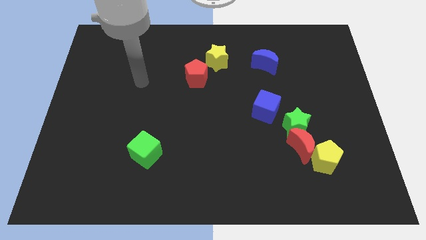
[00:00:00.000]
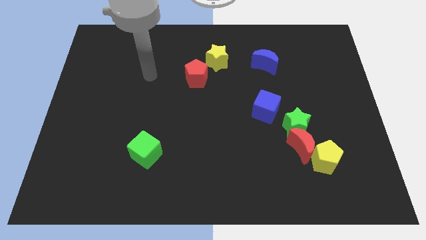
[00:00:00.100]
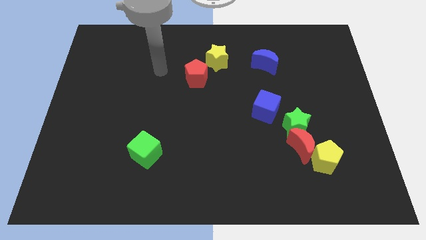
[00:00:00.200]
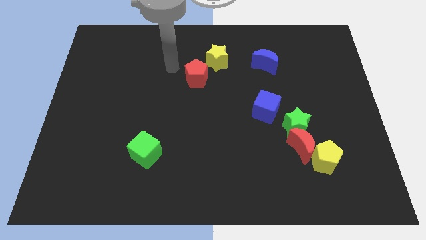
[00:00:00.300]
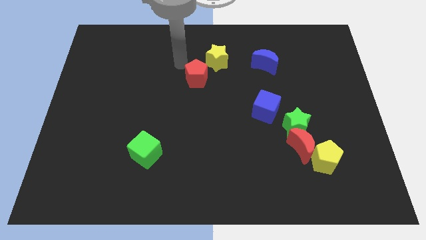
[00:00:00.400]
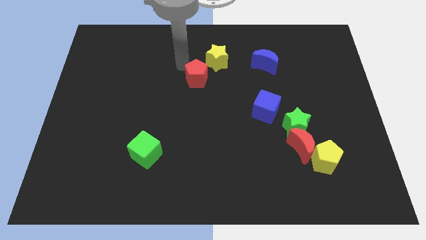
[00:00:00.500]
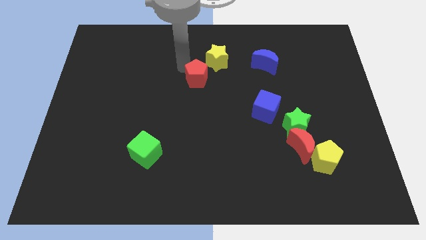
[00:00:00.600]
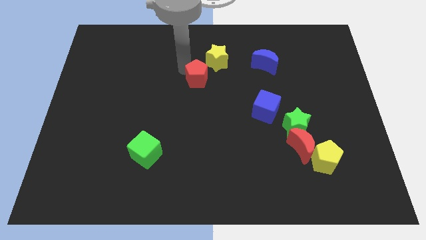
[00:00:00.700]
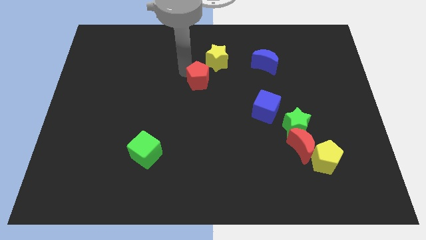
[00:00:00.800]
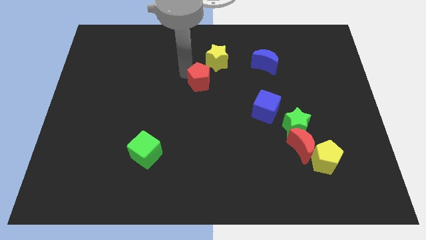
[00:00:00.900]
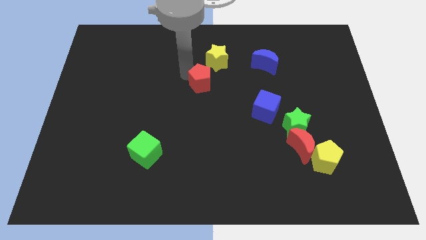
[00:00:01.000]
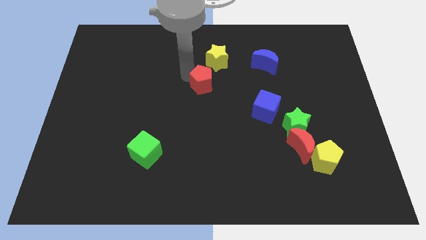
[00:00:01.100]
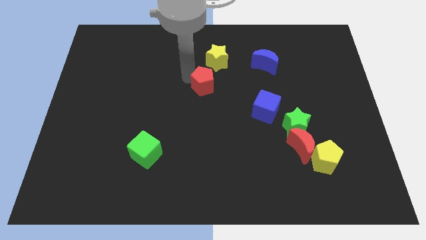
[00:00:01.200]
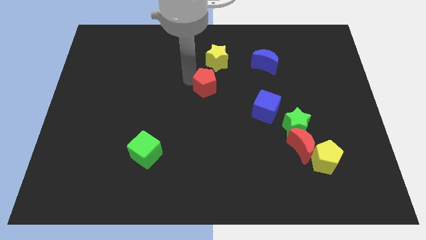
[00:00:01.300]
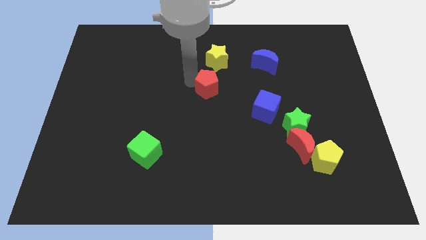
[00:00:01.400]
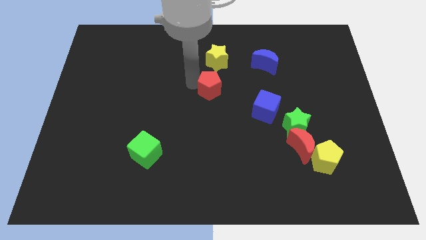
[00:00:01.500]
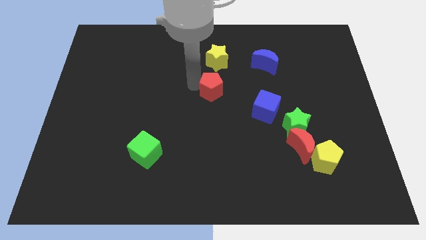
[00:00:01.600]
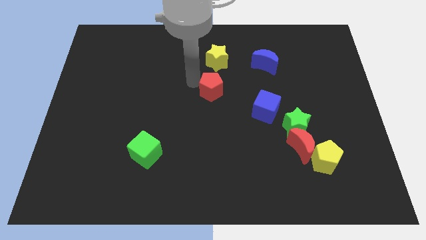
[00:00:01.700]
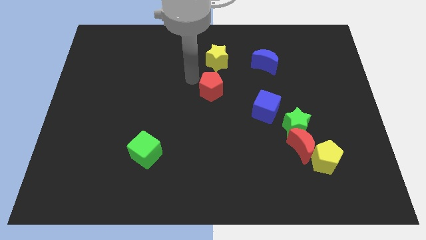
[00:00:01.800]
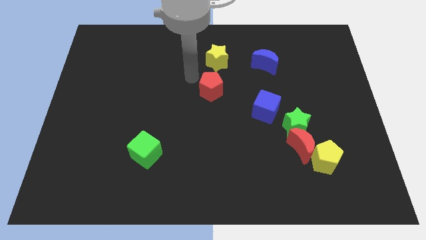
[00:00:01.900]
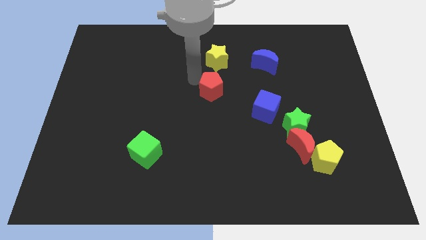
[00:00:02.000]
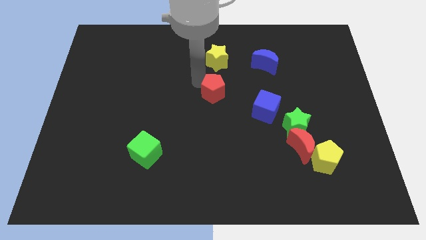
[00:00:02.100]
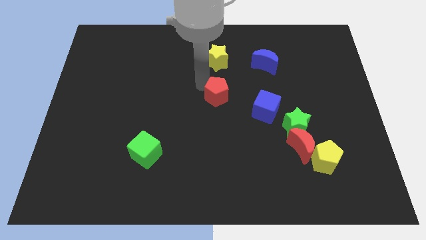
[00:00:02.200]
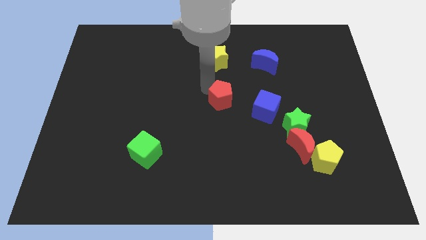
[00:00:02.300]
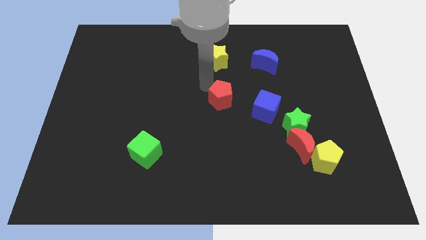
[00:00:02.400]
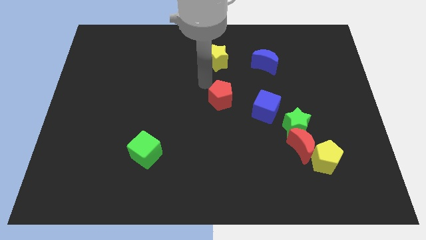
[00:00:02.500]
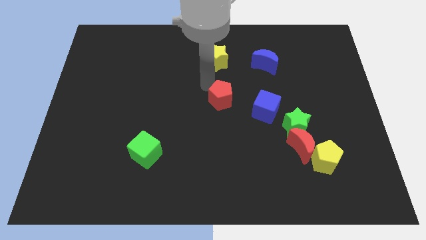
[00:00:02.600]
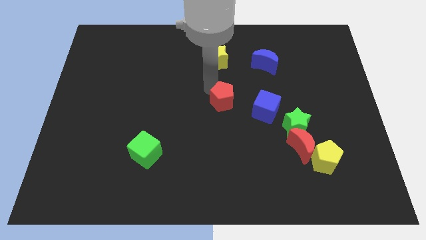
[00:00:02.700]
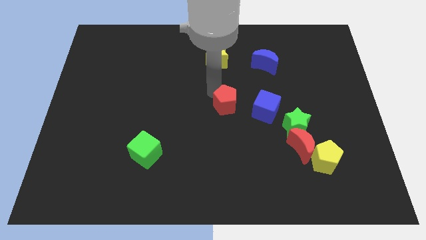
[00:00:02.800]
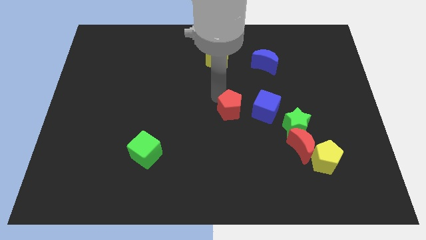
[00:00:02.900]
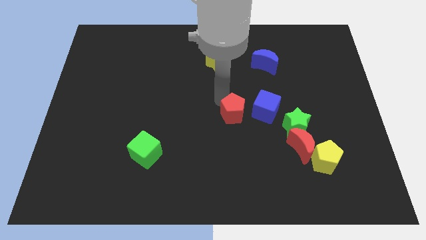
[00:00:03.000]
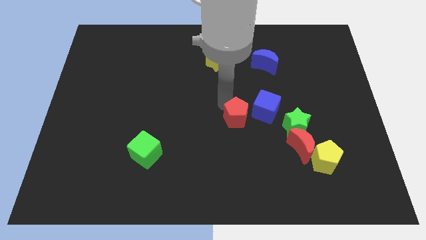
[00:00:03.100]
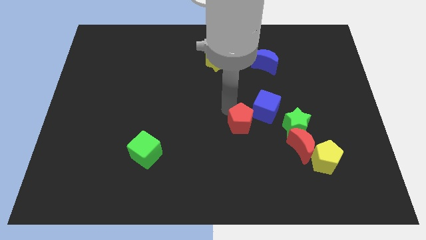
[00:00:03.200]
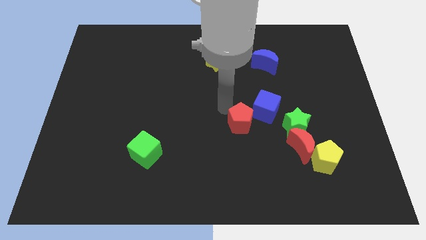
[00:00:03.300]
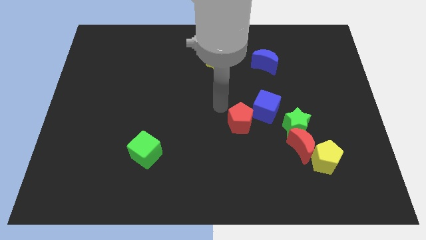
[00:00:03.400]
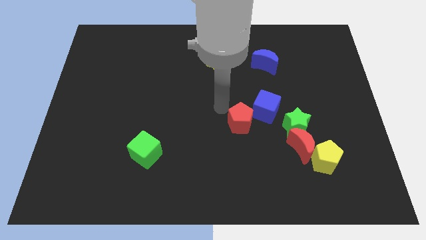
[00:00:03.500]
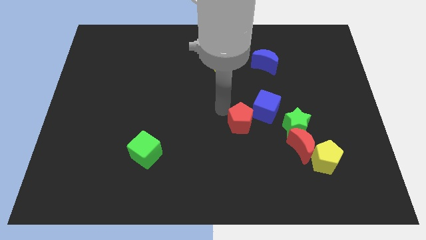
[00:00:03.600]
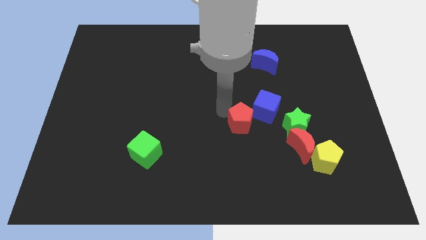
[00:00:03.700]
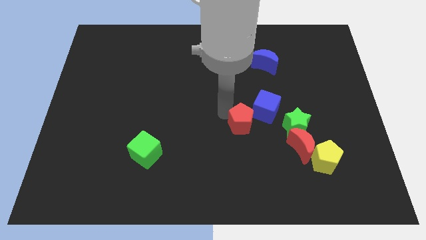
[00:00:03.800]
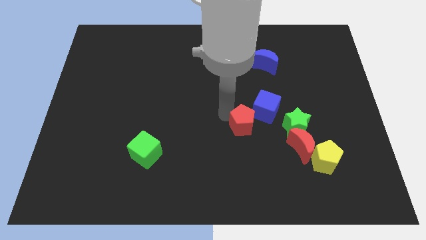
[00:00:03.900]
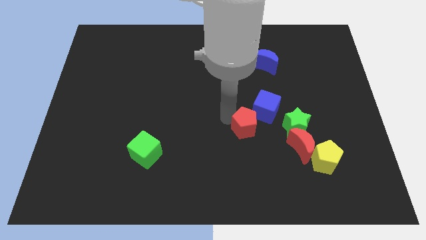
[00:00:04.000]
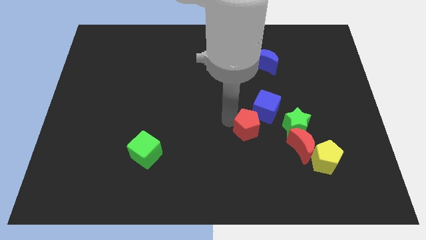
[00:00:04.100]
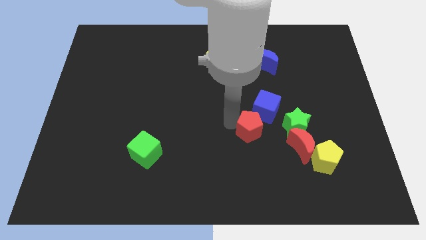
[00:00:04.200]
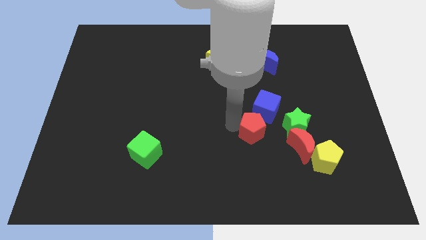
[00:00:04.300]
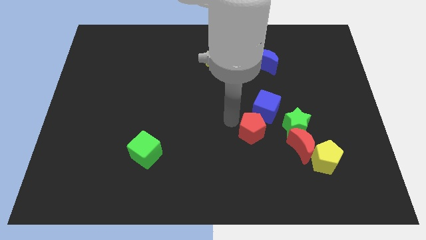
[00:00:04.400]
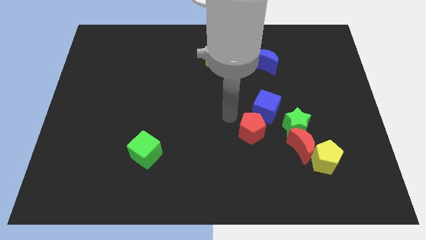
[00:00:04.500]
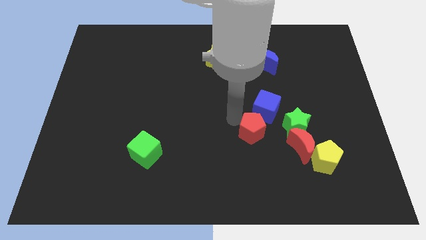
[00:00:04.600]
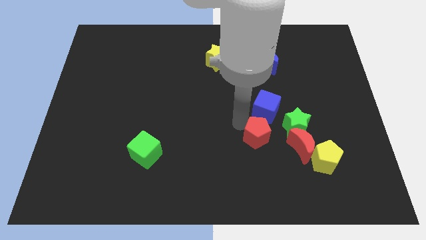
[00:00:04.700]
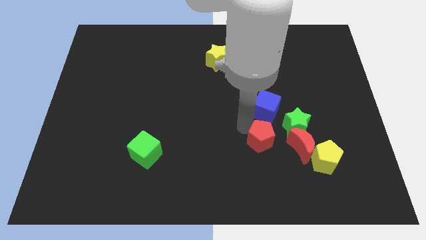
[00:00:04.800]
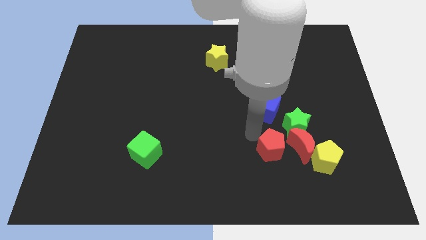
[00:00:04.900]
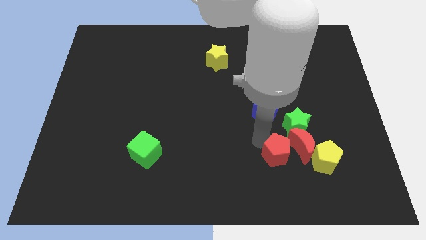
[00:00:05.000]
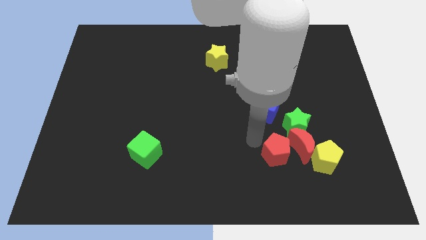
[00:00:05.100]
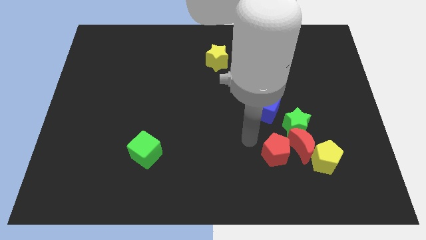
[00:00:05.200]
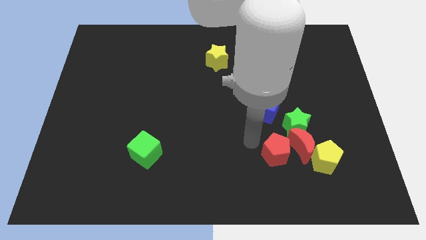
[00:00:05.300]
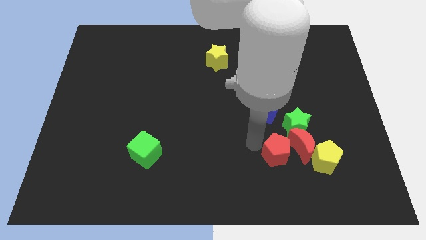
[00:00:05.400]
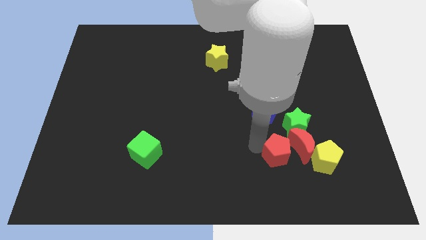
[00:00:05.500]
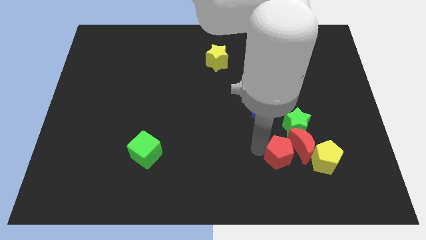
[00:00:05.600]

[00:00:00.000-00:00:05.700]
push the red pentagon to the bottom side of the green star

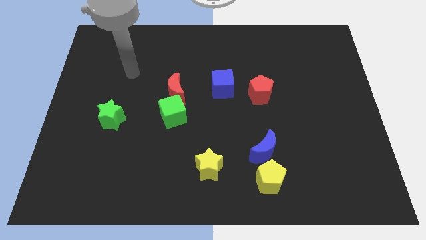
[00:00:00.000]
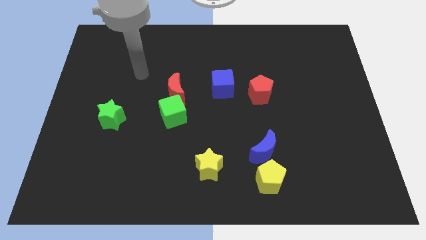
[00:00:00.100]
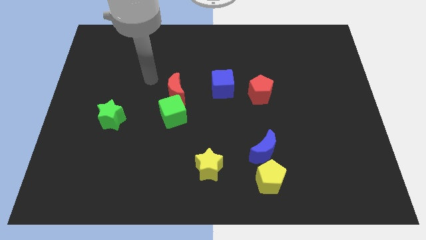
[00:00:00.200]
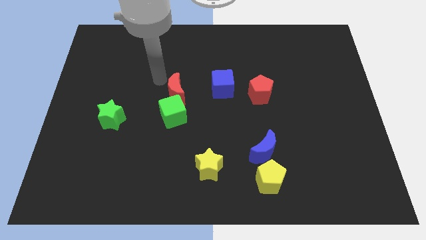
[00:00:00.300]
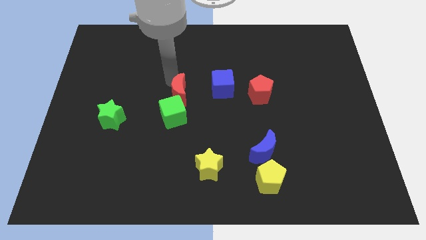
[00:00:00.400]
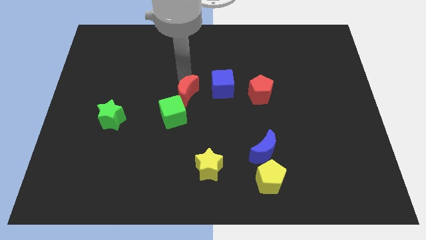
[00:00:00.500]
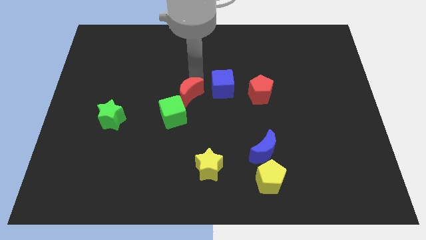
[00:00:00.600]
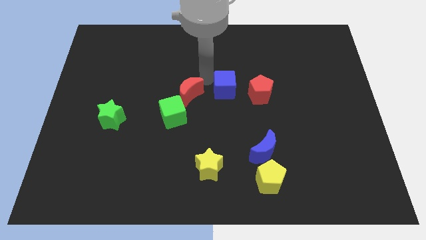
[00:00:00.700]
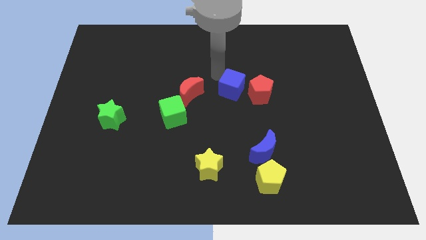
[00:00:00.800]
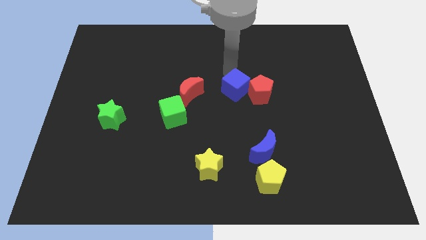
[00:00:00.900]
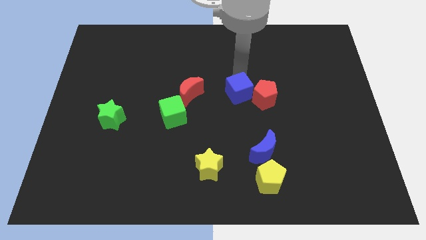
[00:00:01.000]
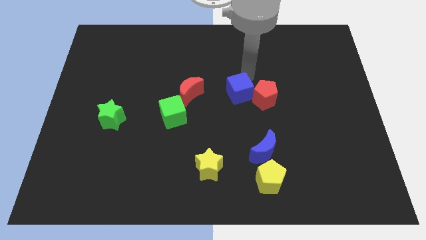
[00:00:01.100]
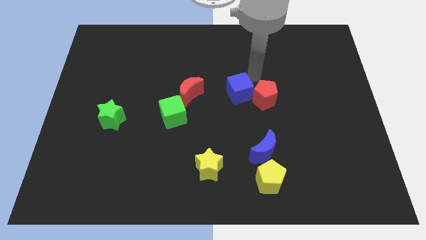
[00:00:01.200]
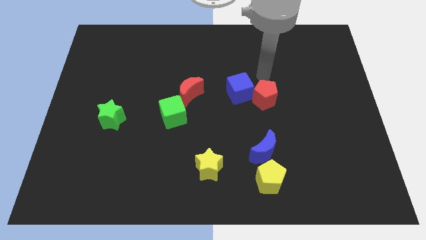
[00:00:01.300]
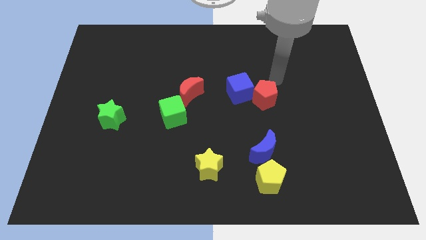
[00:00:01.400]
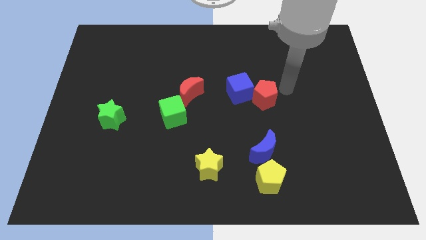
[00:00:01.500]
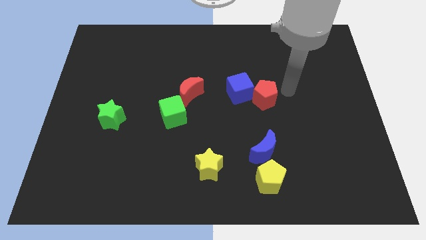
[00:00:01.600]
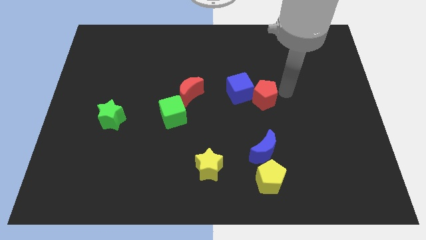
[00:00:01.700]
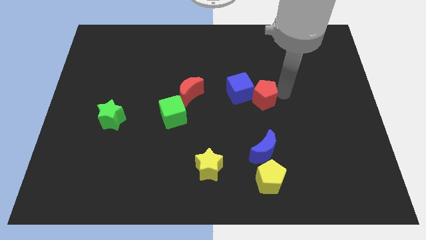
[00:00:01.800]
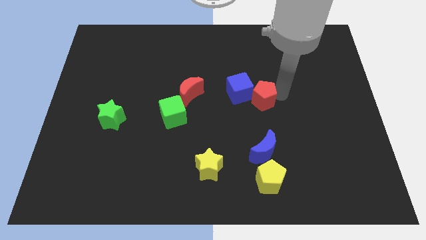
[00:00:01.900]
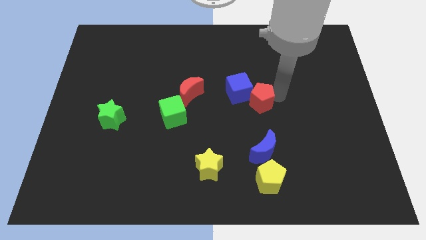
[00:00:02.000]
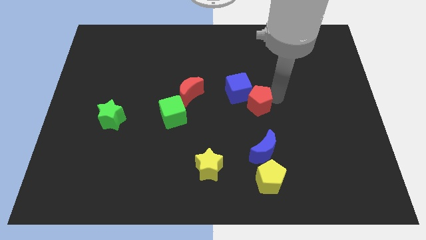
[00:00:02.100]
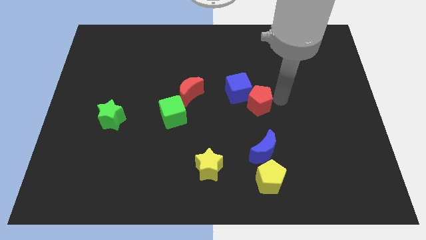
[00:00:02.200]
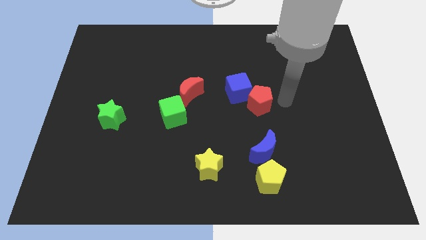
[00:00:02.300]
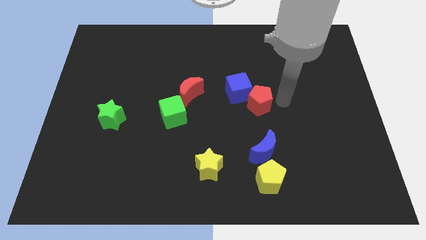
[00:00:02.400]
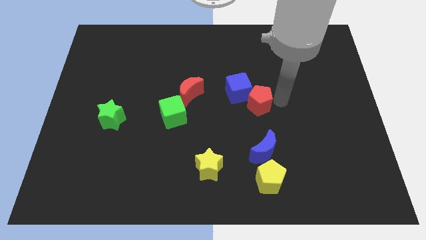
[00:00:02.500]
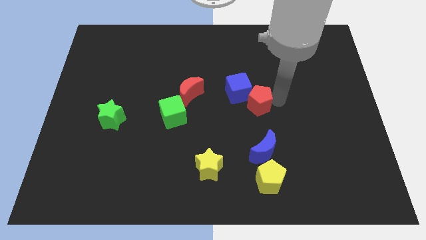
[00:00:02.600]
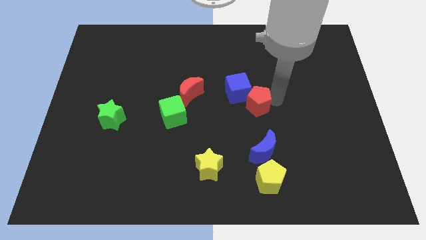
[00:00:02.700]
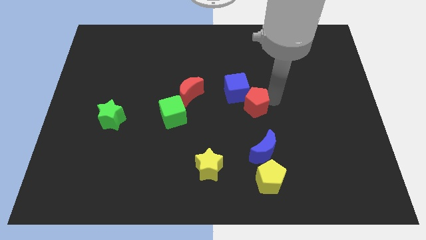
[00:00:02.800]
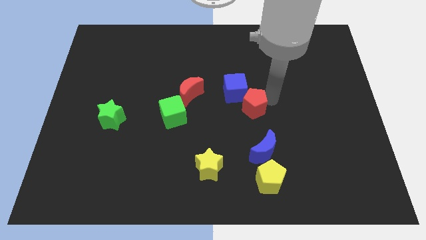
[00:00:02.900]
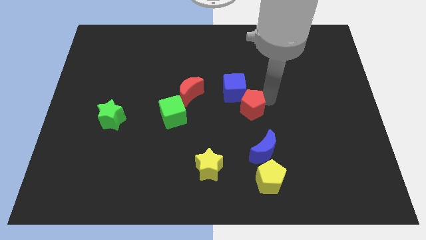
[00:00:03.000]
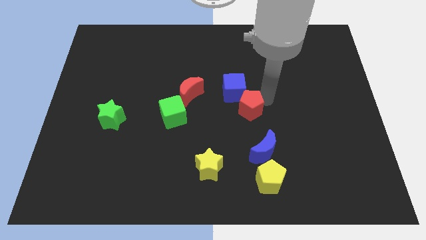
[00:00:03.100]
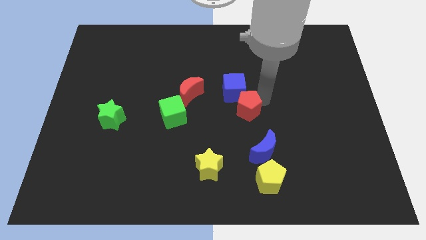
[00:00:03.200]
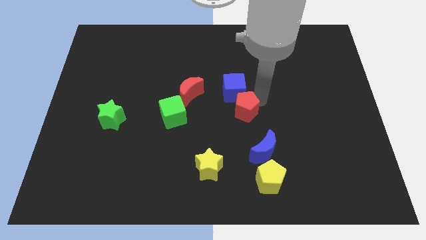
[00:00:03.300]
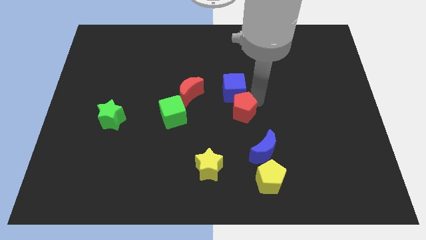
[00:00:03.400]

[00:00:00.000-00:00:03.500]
slide the red pentagon just right of the green cube
